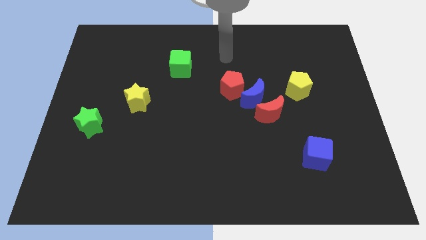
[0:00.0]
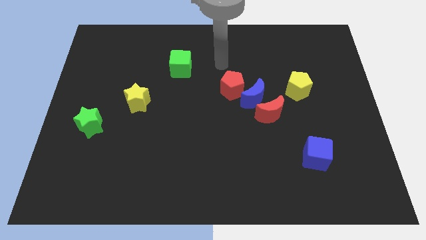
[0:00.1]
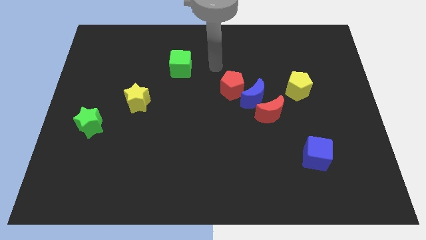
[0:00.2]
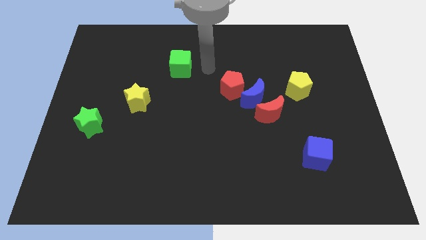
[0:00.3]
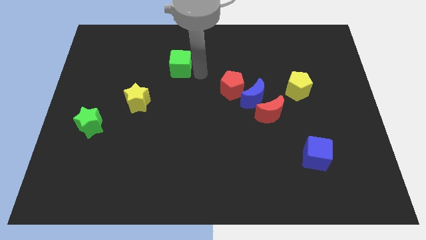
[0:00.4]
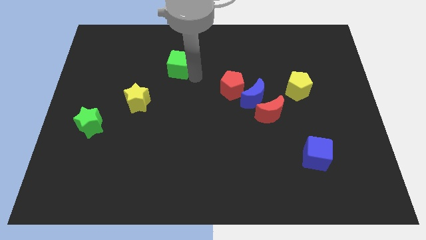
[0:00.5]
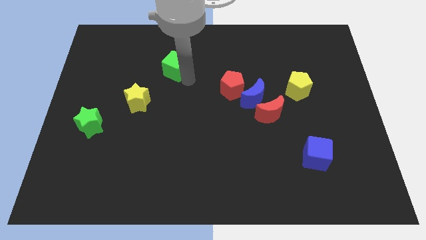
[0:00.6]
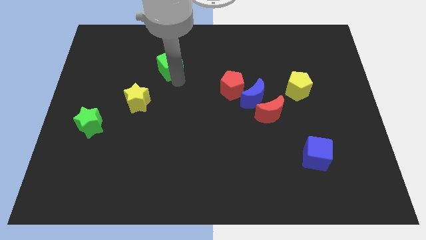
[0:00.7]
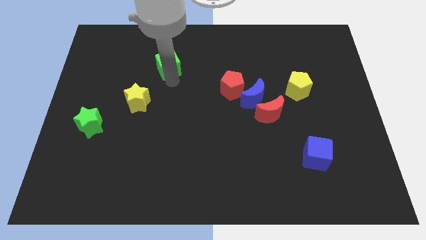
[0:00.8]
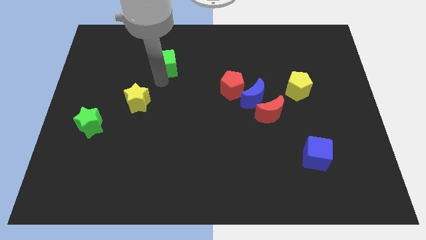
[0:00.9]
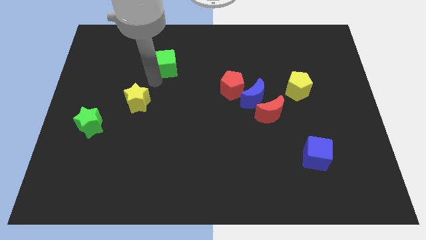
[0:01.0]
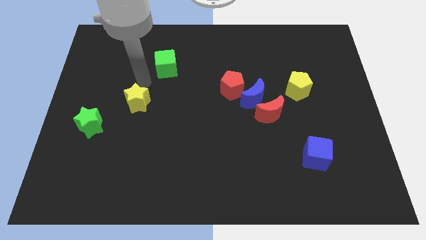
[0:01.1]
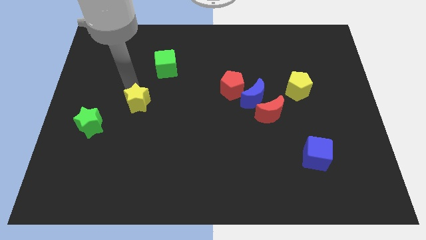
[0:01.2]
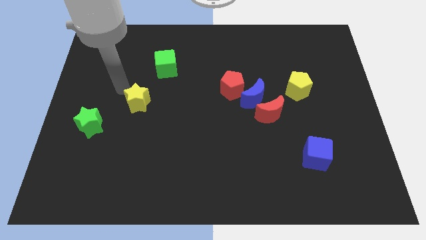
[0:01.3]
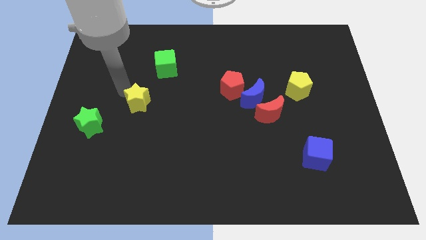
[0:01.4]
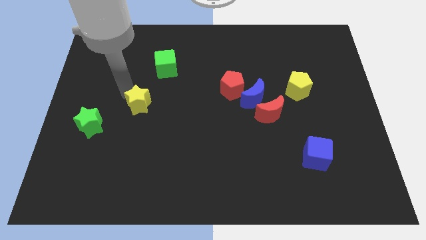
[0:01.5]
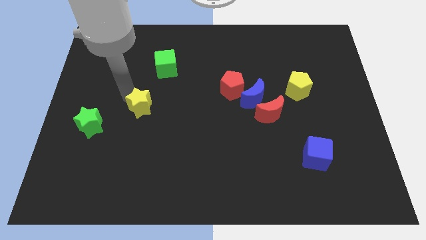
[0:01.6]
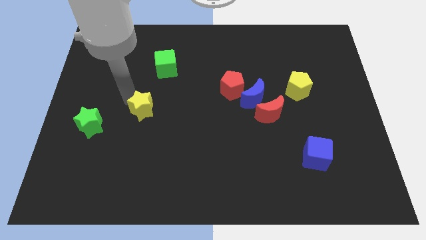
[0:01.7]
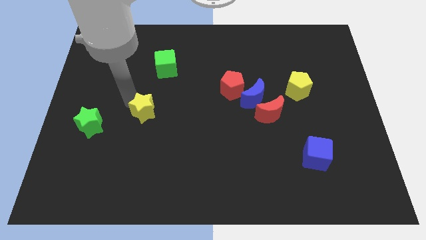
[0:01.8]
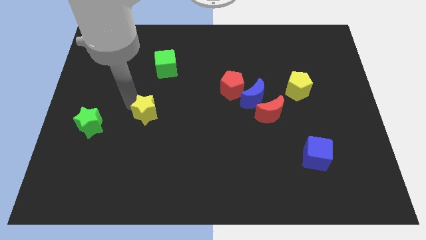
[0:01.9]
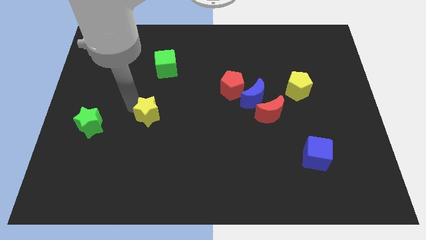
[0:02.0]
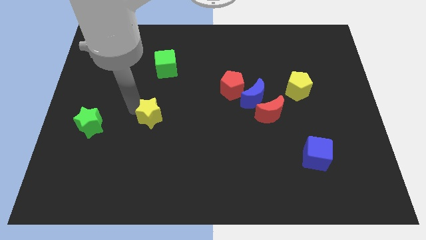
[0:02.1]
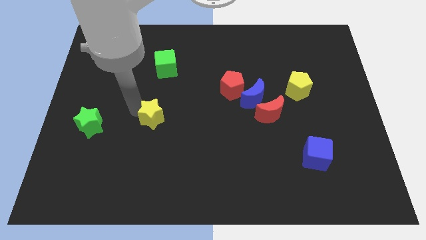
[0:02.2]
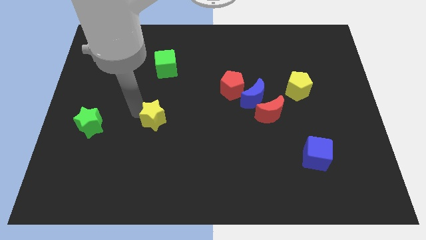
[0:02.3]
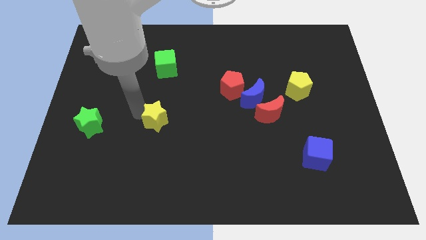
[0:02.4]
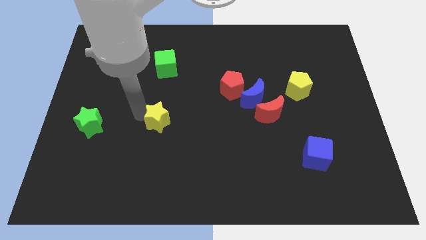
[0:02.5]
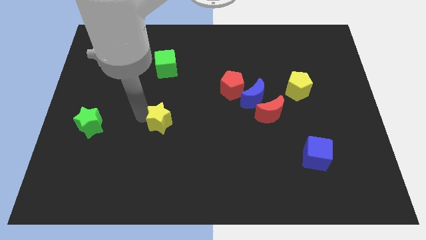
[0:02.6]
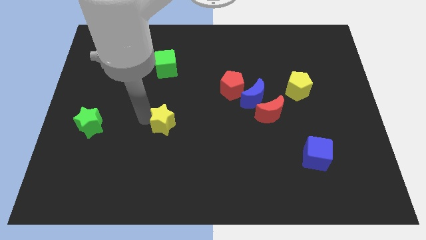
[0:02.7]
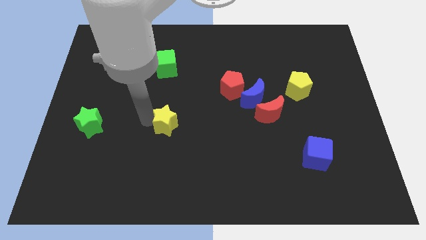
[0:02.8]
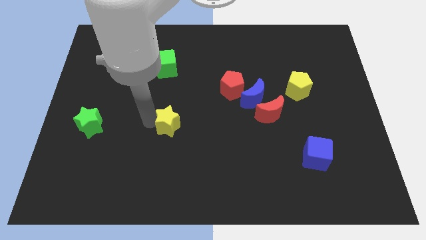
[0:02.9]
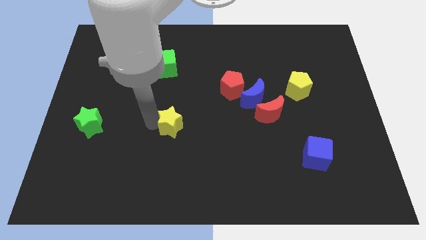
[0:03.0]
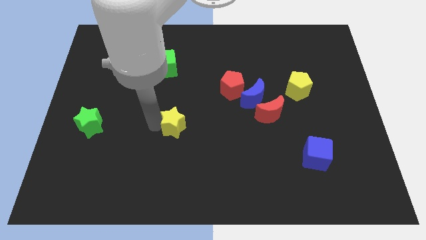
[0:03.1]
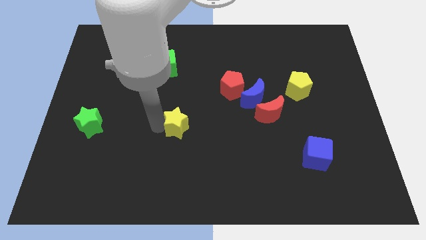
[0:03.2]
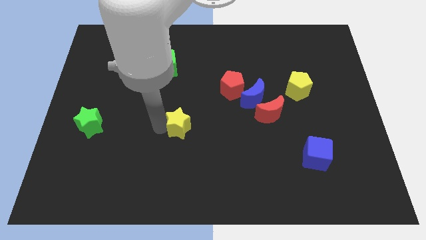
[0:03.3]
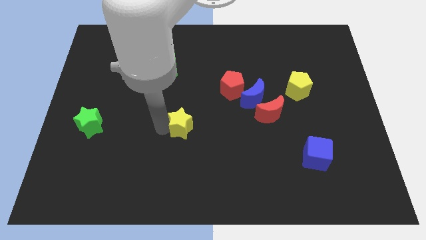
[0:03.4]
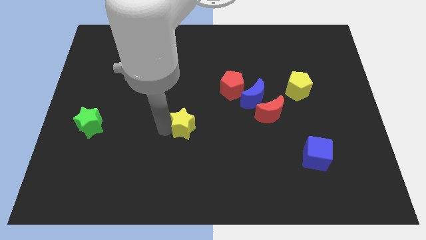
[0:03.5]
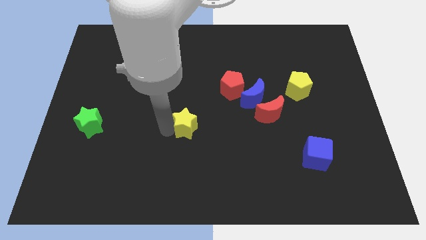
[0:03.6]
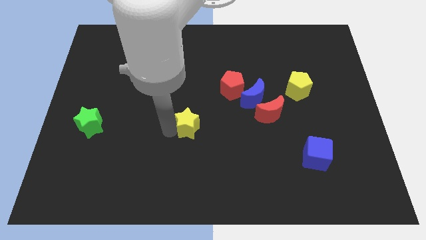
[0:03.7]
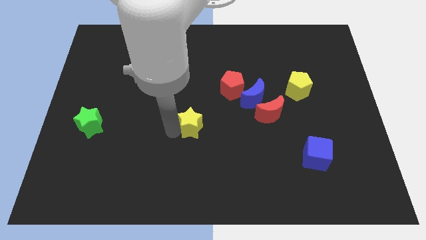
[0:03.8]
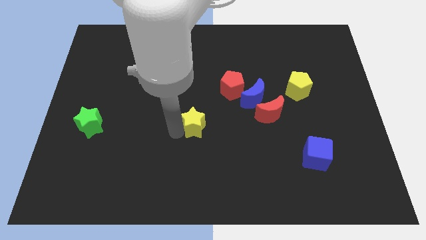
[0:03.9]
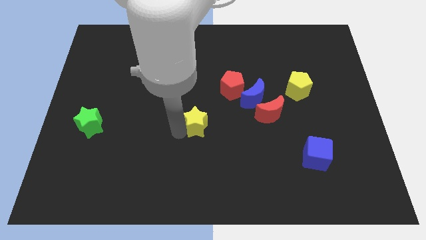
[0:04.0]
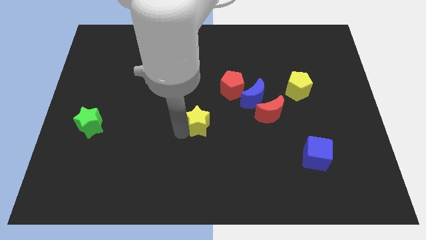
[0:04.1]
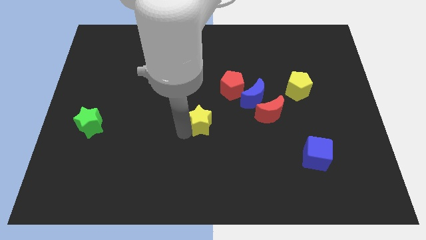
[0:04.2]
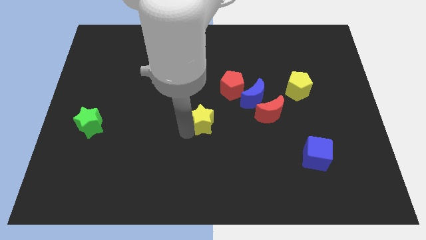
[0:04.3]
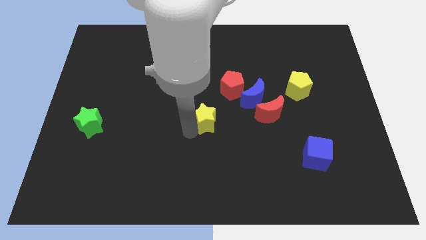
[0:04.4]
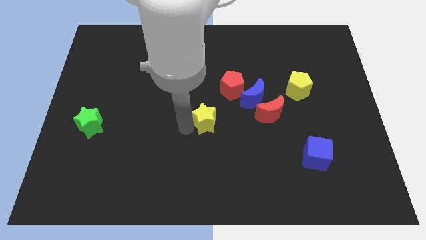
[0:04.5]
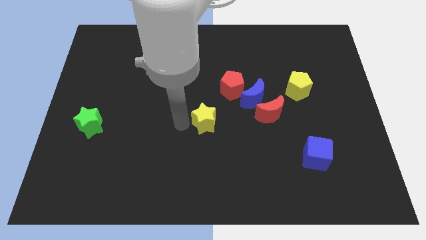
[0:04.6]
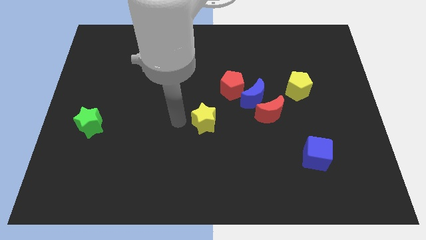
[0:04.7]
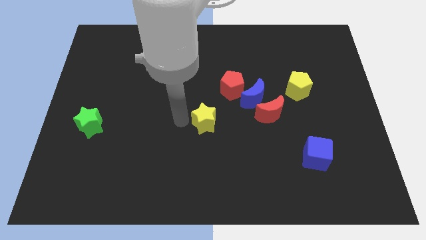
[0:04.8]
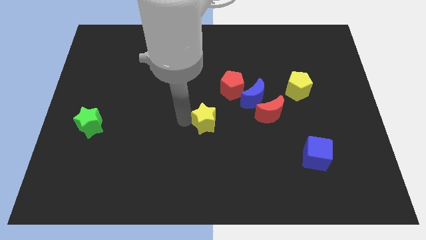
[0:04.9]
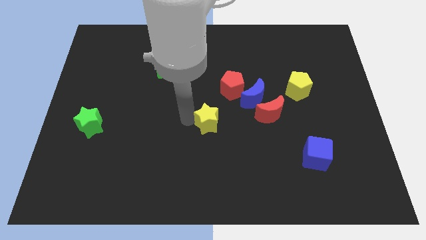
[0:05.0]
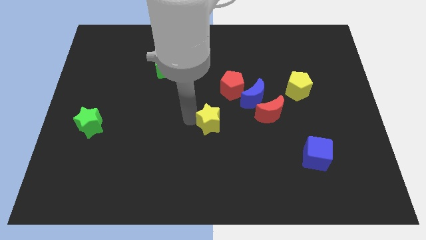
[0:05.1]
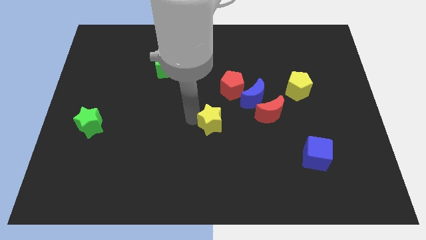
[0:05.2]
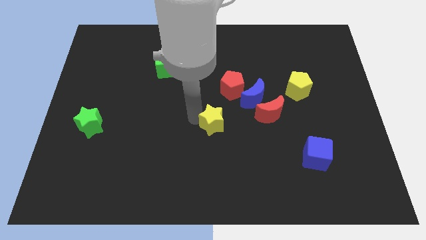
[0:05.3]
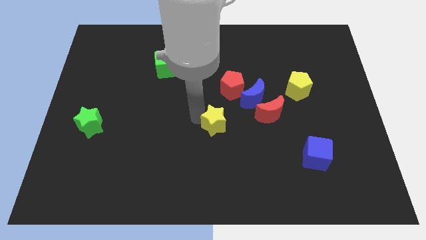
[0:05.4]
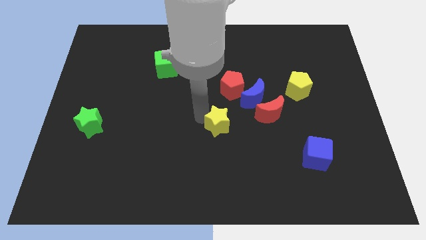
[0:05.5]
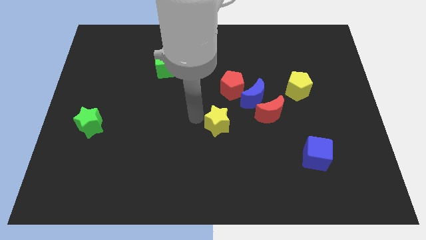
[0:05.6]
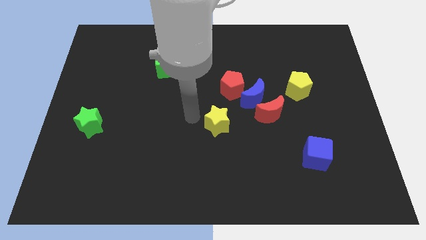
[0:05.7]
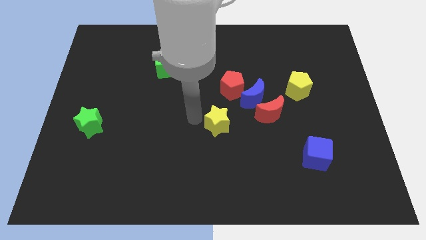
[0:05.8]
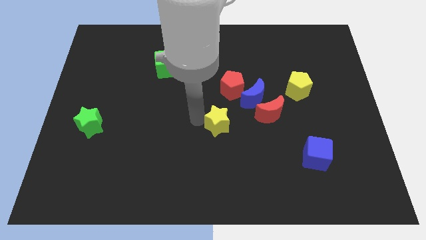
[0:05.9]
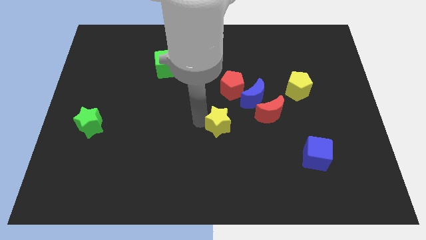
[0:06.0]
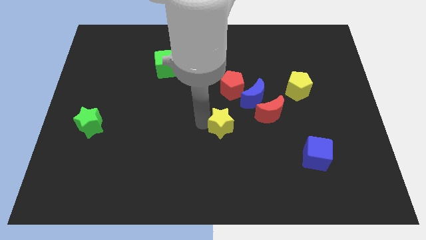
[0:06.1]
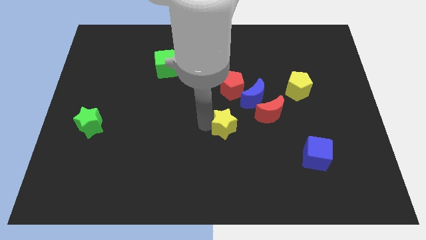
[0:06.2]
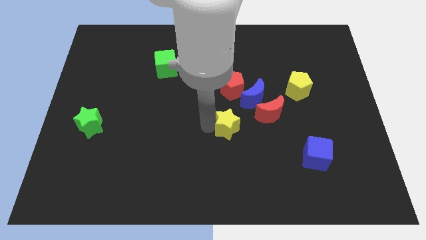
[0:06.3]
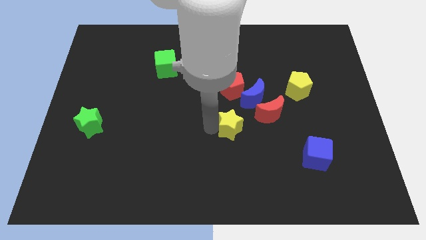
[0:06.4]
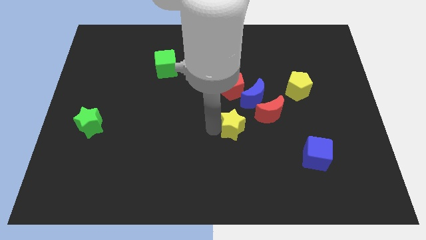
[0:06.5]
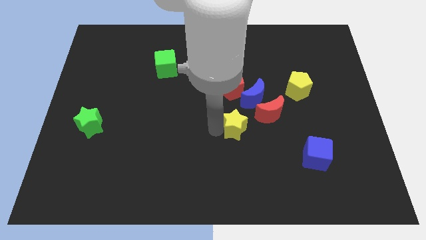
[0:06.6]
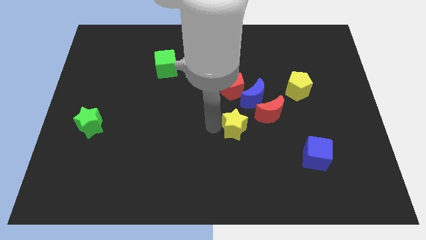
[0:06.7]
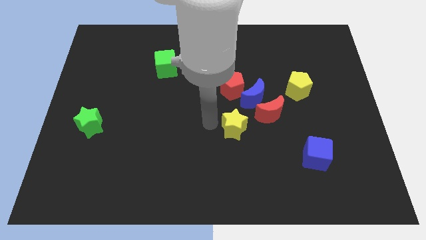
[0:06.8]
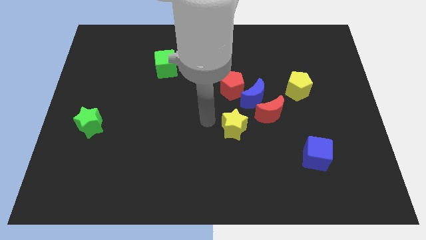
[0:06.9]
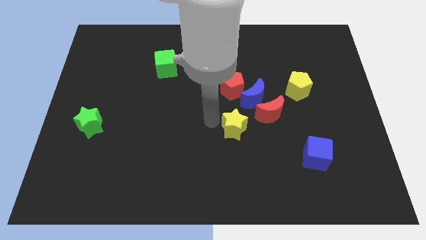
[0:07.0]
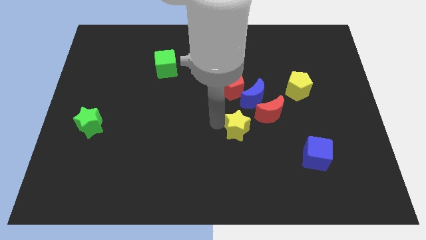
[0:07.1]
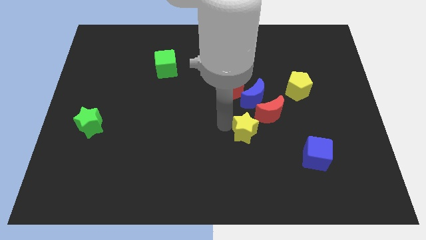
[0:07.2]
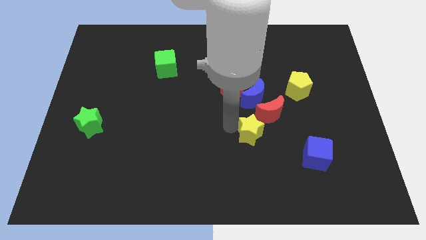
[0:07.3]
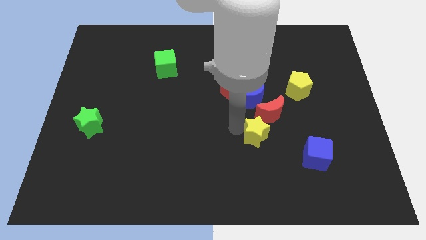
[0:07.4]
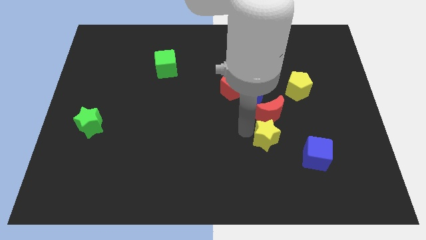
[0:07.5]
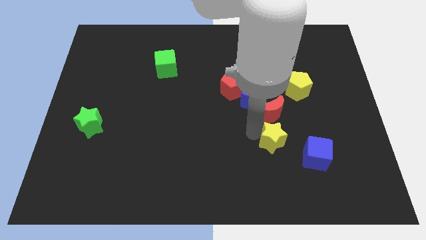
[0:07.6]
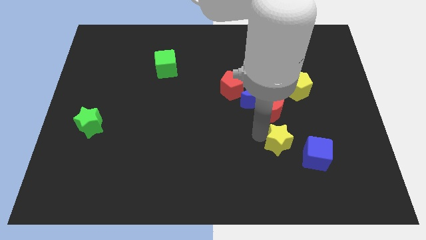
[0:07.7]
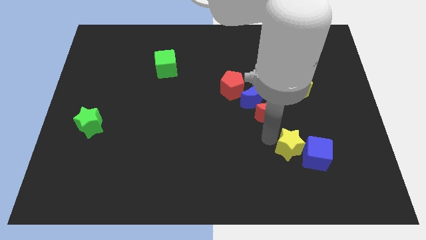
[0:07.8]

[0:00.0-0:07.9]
slide the yellow star to the blue cube
